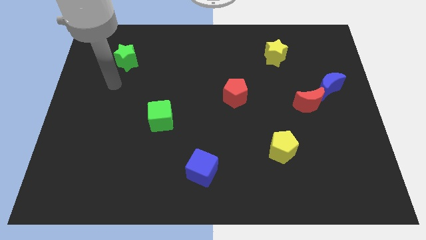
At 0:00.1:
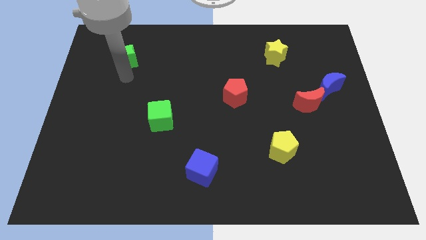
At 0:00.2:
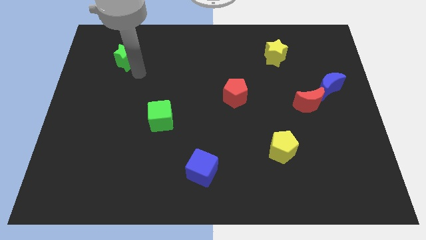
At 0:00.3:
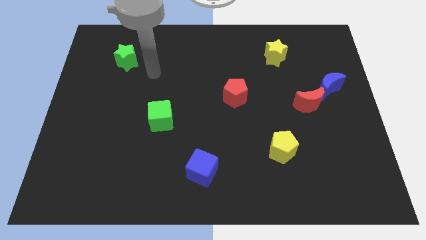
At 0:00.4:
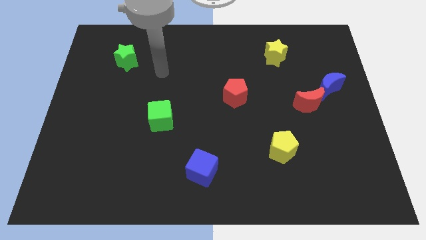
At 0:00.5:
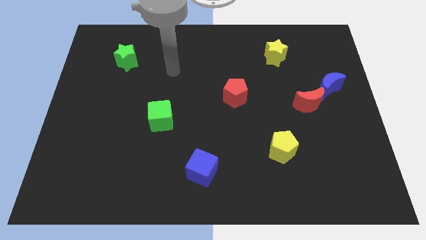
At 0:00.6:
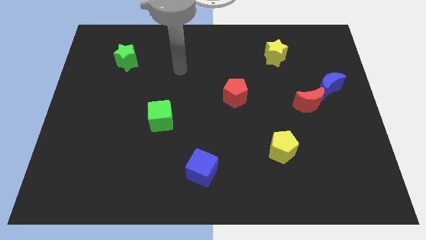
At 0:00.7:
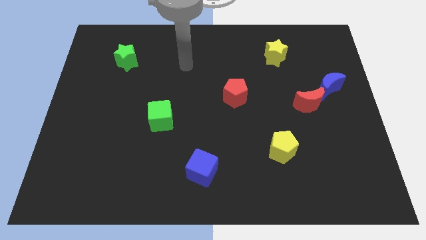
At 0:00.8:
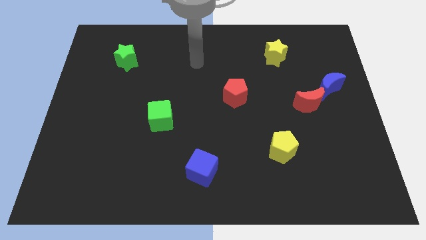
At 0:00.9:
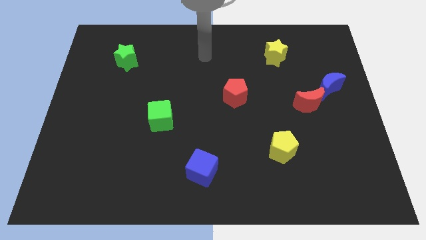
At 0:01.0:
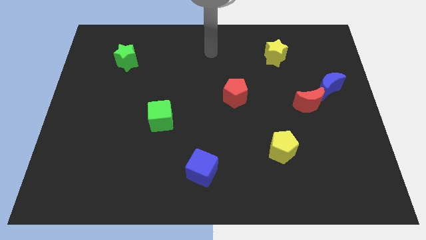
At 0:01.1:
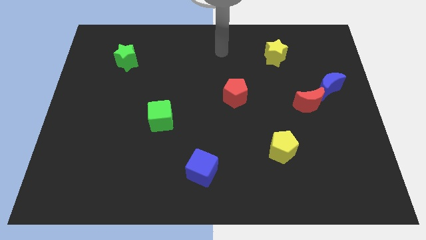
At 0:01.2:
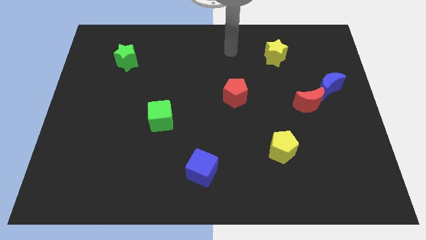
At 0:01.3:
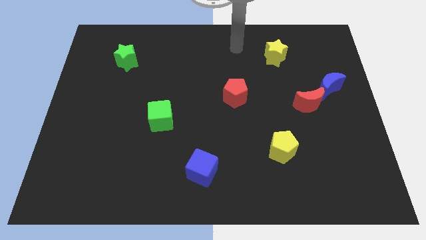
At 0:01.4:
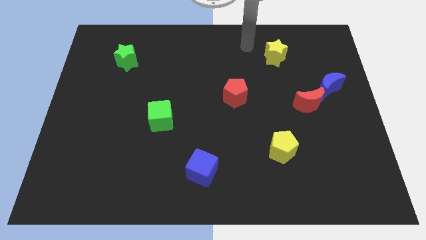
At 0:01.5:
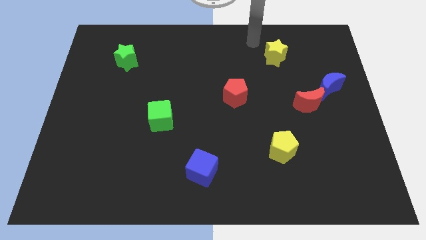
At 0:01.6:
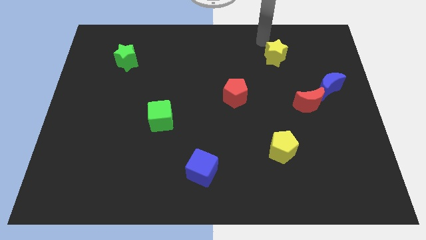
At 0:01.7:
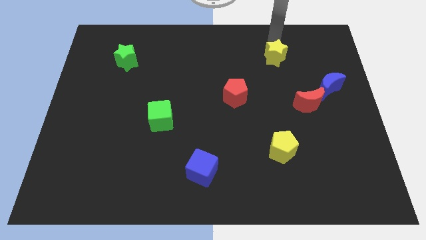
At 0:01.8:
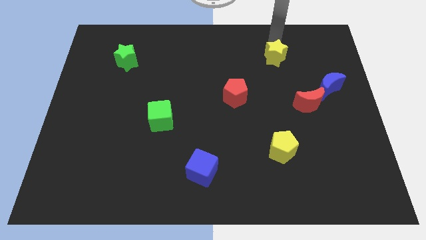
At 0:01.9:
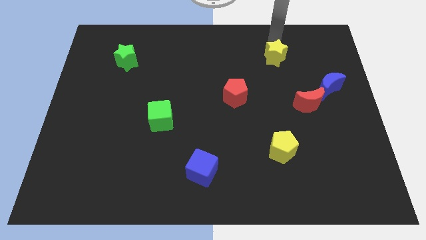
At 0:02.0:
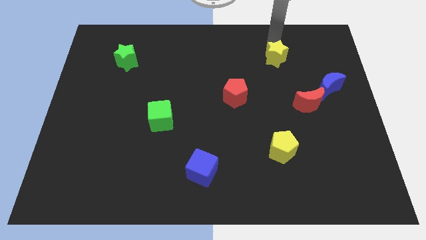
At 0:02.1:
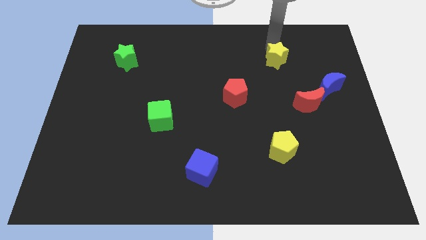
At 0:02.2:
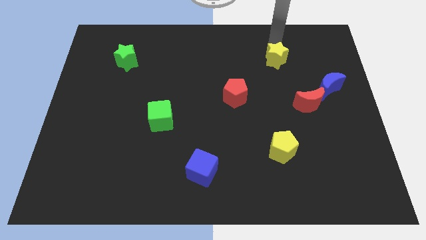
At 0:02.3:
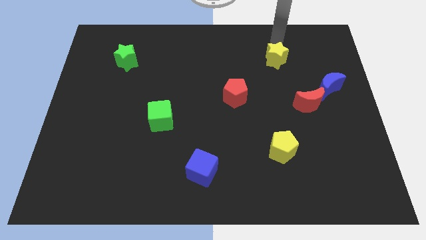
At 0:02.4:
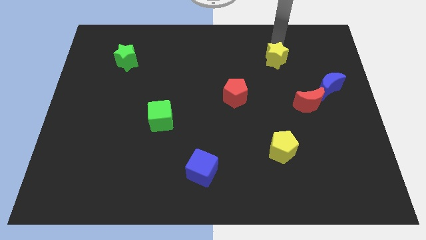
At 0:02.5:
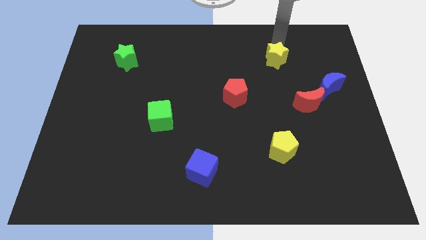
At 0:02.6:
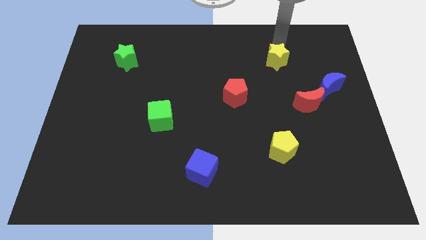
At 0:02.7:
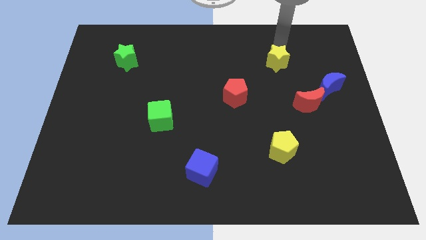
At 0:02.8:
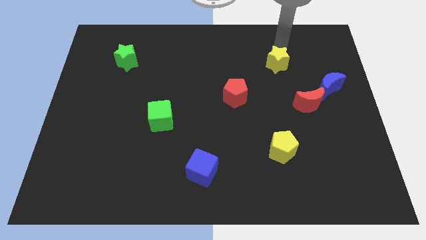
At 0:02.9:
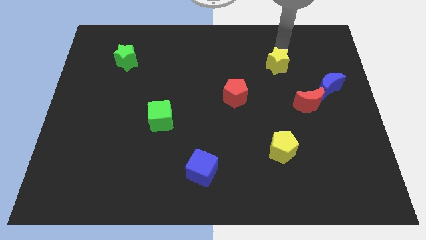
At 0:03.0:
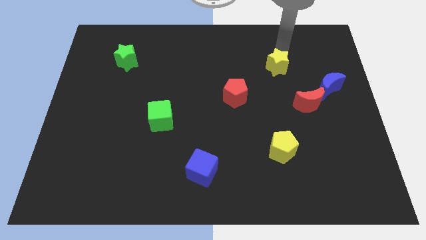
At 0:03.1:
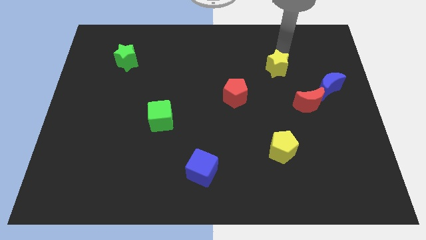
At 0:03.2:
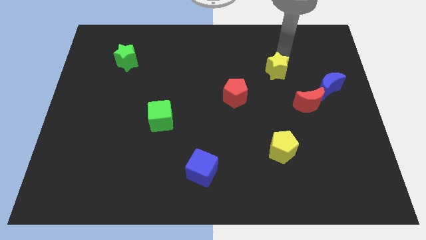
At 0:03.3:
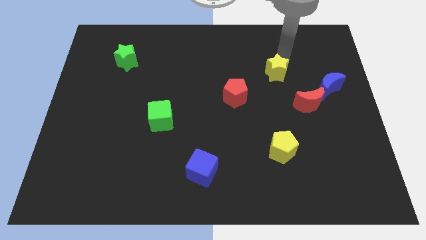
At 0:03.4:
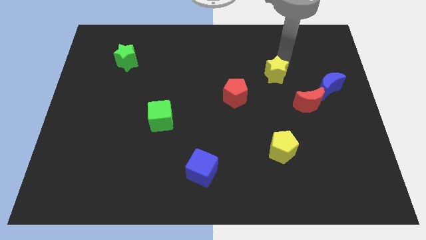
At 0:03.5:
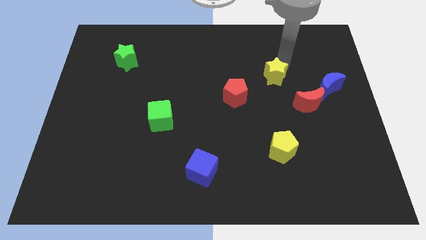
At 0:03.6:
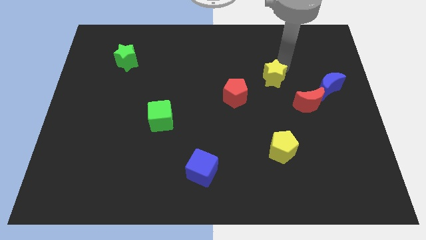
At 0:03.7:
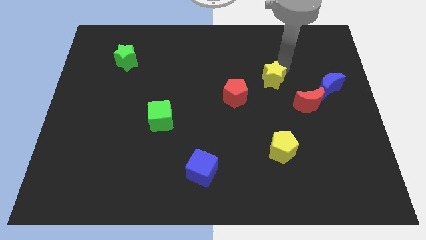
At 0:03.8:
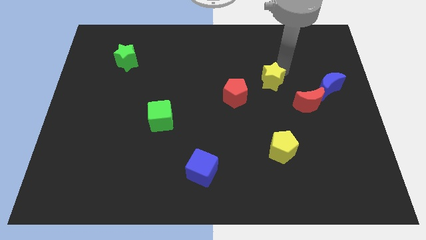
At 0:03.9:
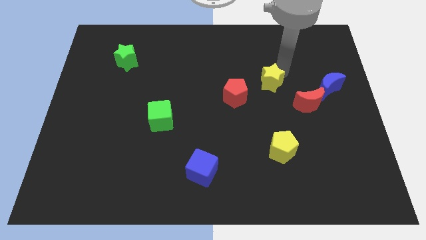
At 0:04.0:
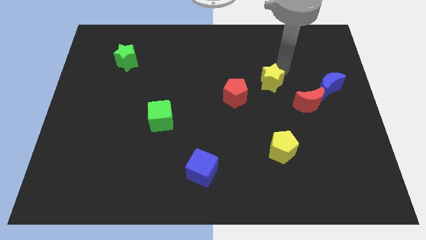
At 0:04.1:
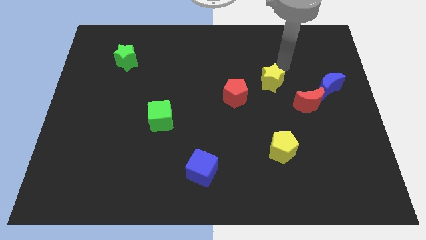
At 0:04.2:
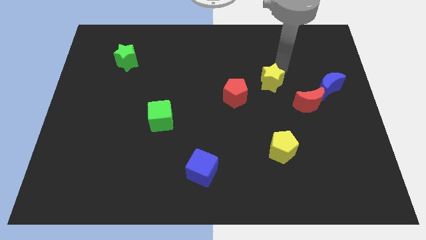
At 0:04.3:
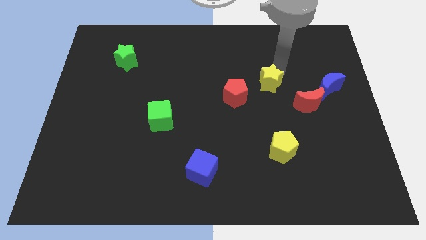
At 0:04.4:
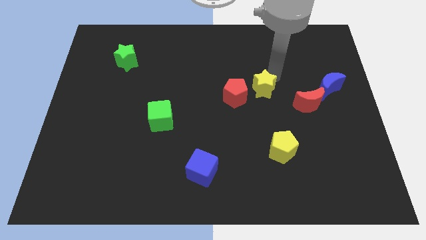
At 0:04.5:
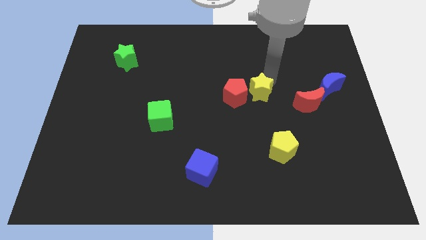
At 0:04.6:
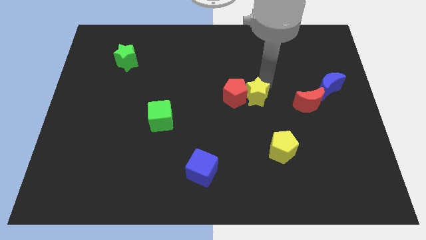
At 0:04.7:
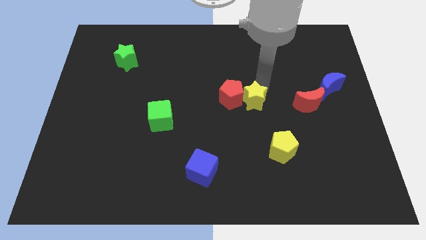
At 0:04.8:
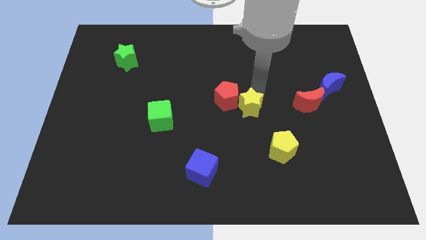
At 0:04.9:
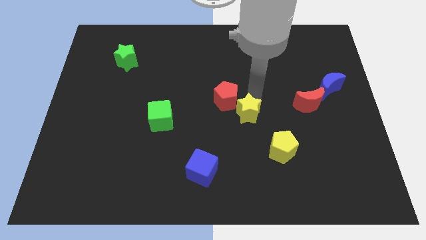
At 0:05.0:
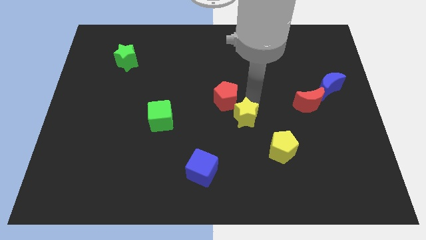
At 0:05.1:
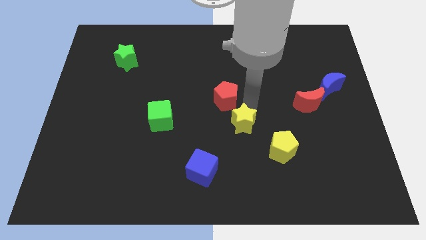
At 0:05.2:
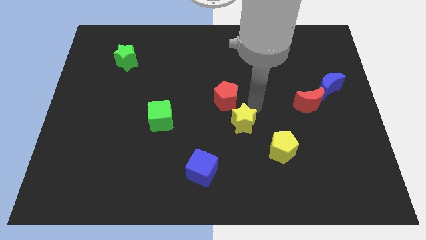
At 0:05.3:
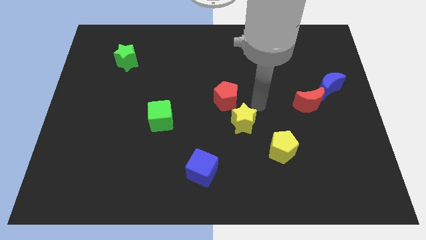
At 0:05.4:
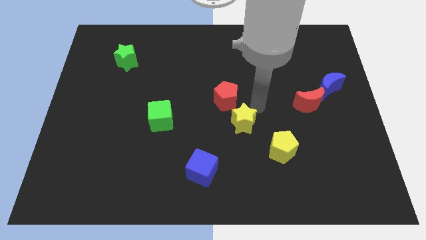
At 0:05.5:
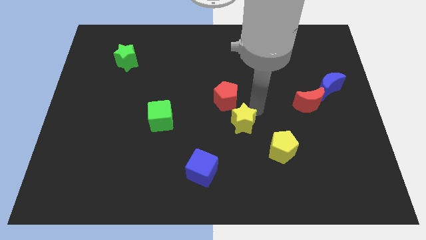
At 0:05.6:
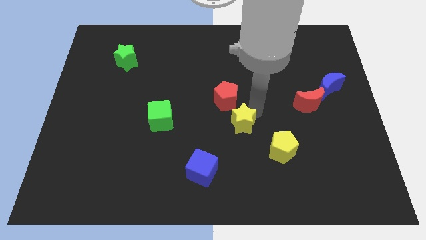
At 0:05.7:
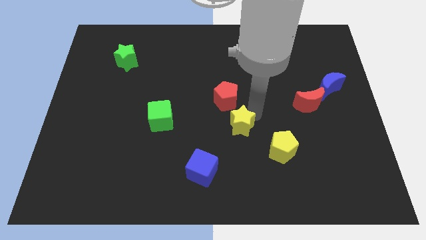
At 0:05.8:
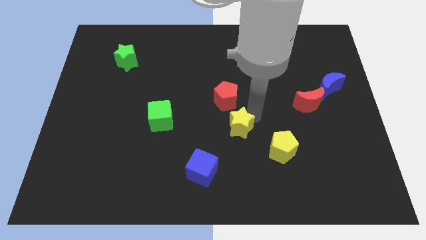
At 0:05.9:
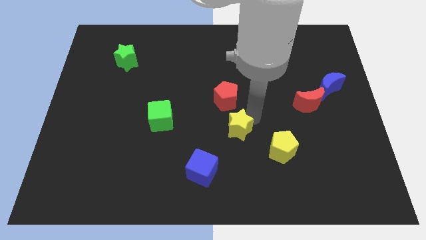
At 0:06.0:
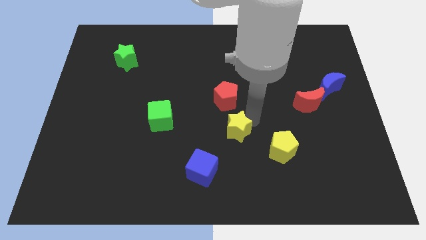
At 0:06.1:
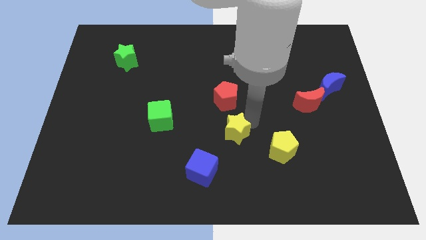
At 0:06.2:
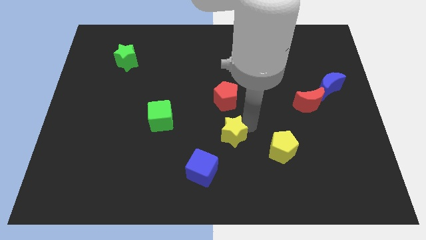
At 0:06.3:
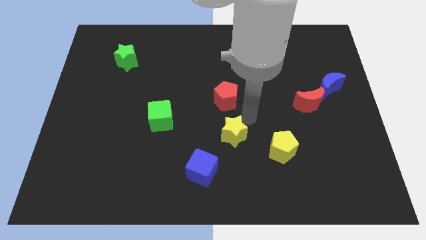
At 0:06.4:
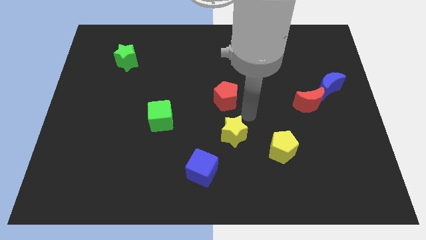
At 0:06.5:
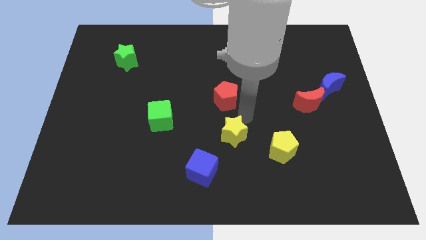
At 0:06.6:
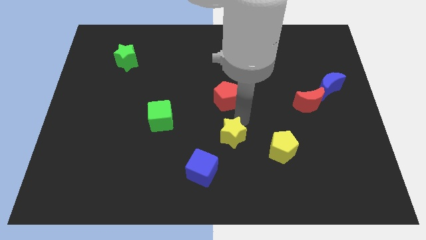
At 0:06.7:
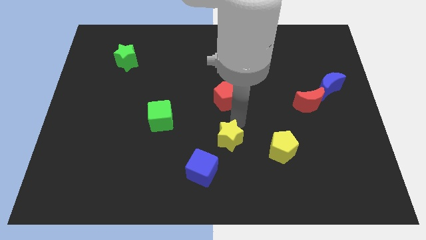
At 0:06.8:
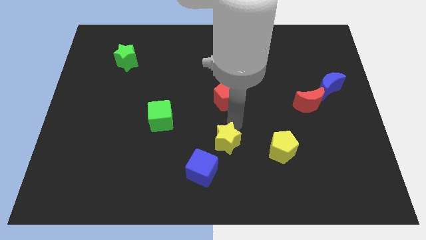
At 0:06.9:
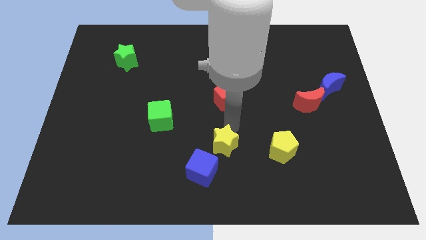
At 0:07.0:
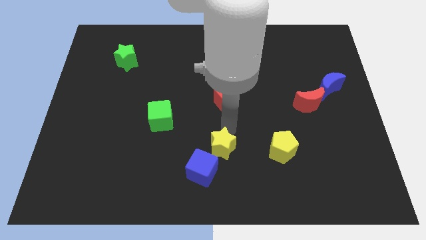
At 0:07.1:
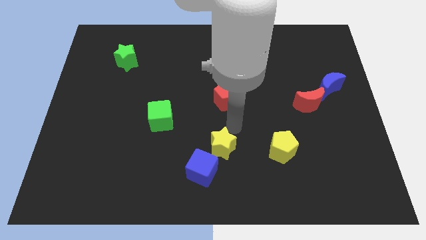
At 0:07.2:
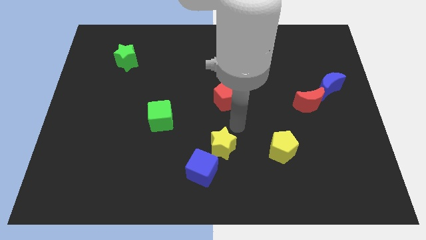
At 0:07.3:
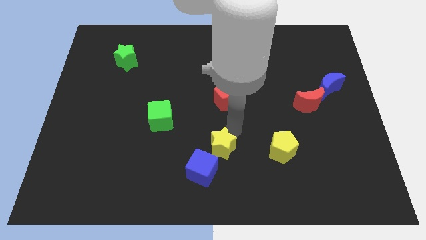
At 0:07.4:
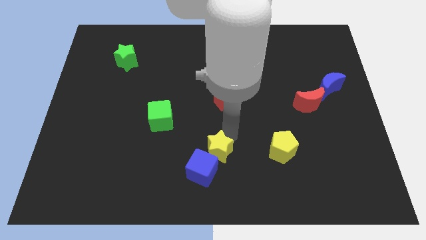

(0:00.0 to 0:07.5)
move the yellow star towards the blue cube
